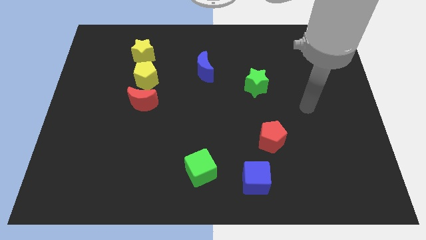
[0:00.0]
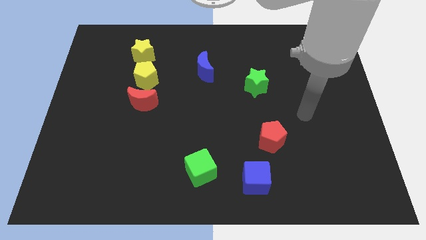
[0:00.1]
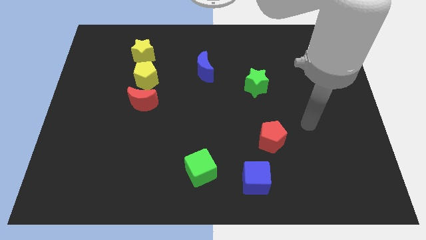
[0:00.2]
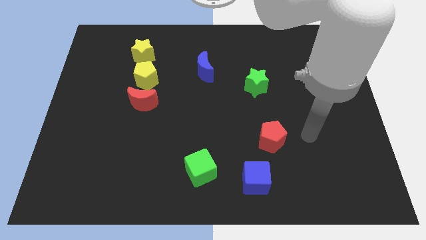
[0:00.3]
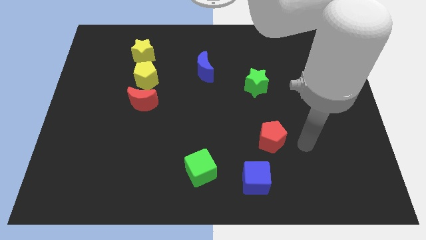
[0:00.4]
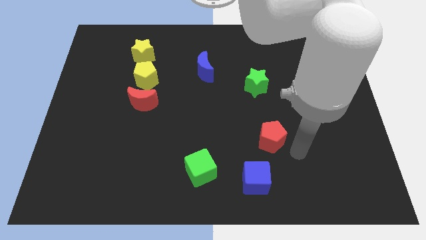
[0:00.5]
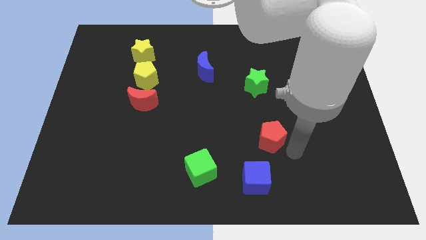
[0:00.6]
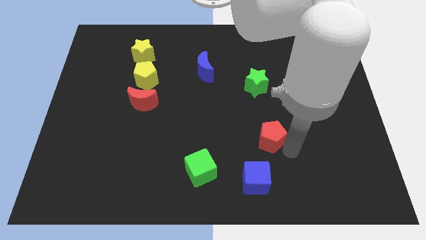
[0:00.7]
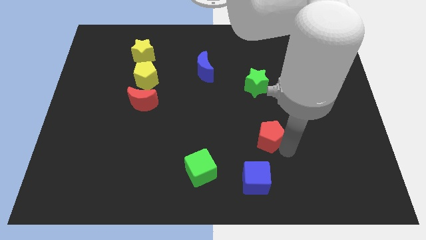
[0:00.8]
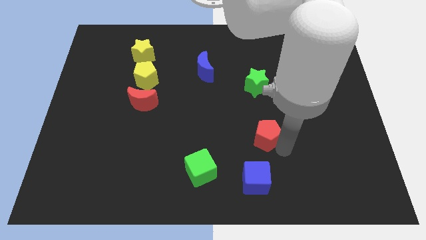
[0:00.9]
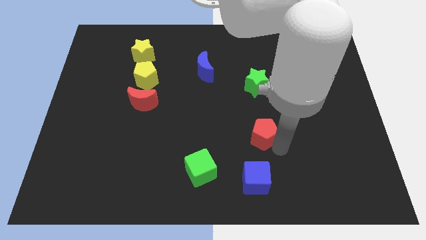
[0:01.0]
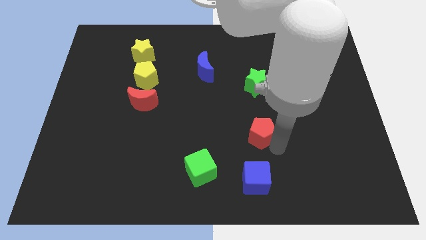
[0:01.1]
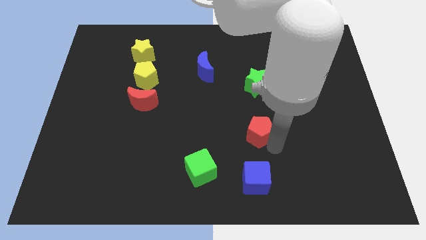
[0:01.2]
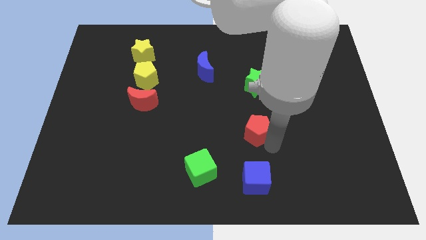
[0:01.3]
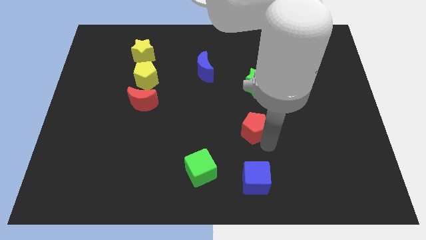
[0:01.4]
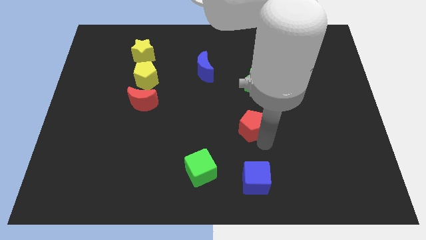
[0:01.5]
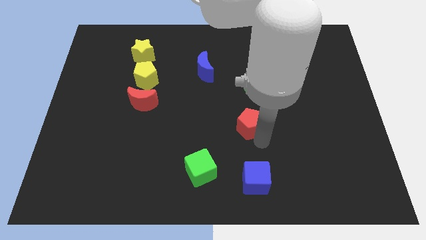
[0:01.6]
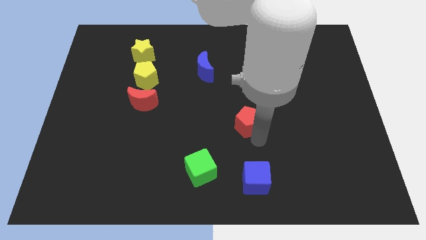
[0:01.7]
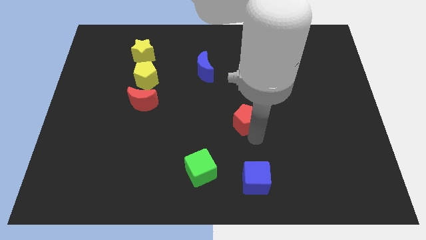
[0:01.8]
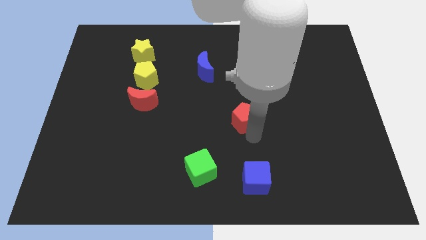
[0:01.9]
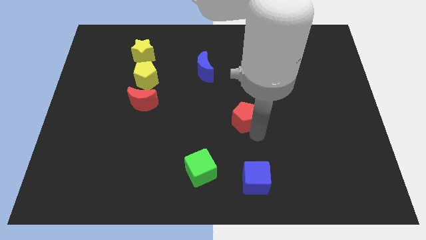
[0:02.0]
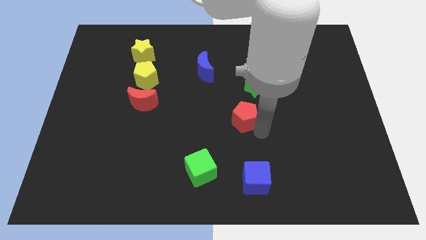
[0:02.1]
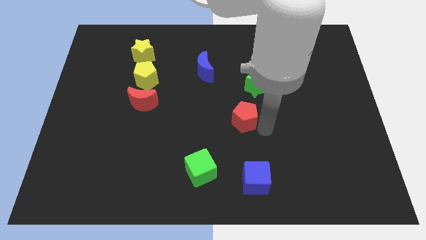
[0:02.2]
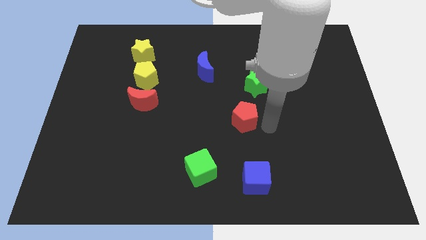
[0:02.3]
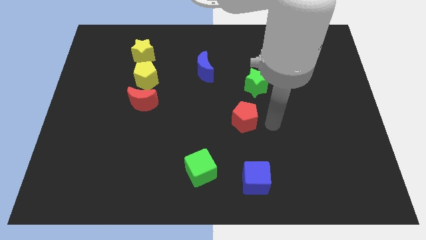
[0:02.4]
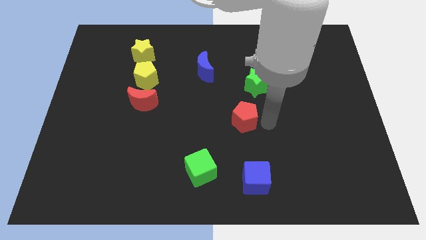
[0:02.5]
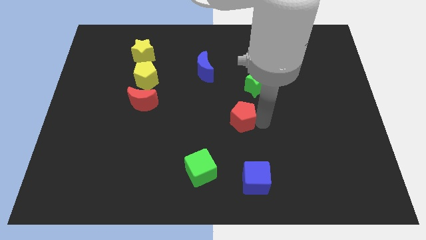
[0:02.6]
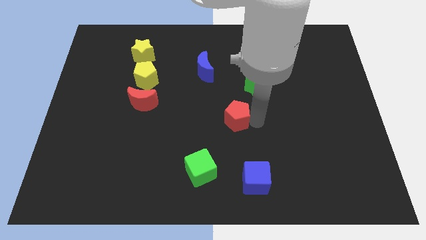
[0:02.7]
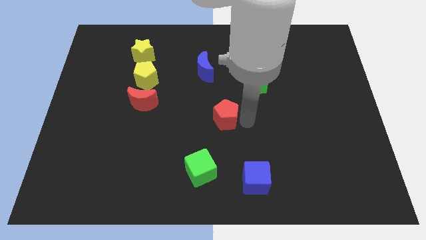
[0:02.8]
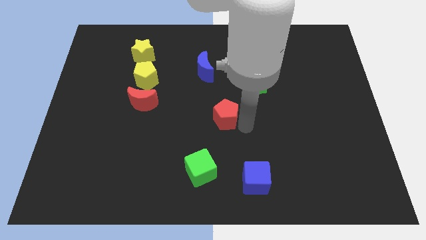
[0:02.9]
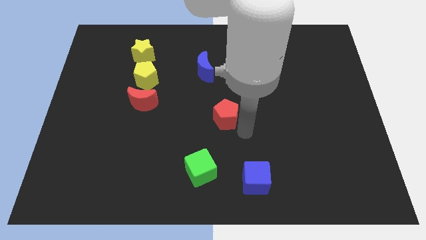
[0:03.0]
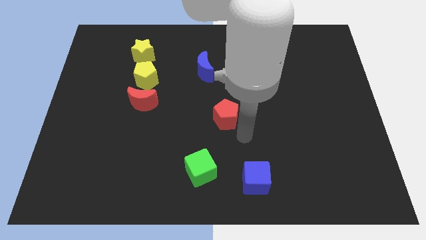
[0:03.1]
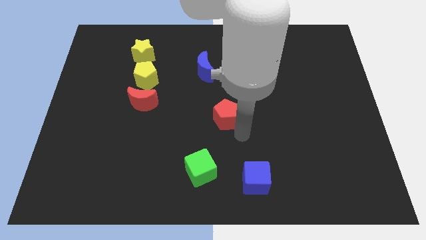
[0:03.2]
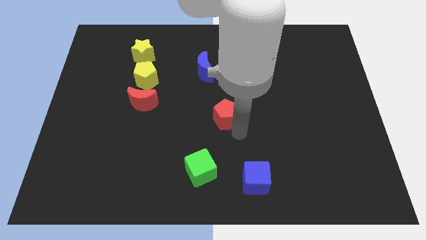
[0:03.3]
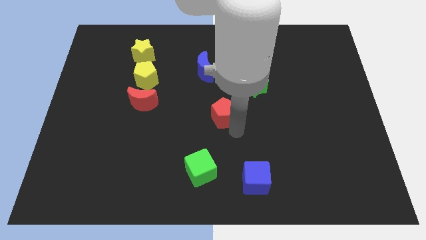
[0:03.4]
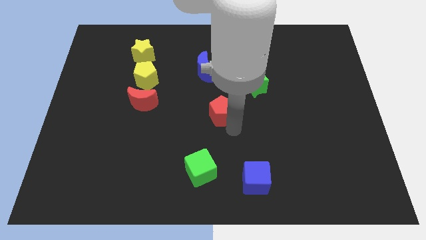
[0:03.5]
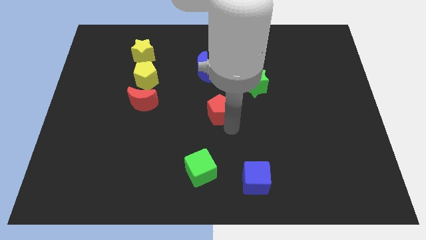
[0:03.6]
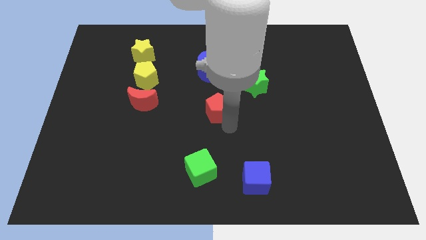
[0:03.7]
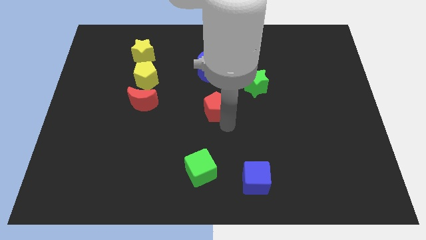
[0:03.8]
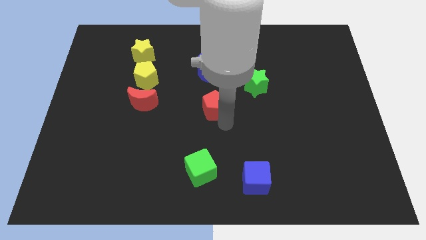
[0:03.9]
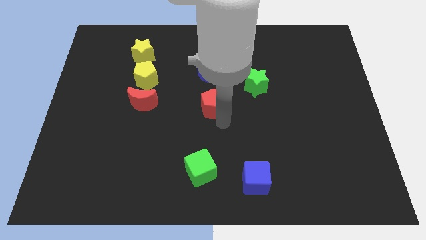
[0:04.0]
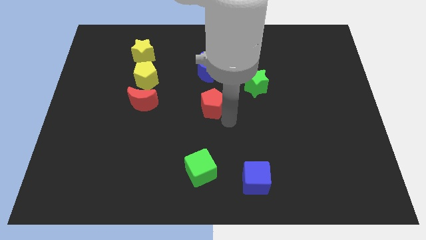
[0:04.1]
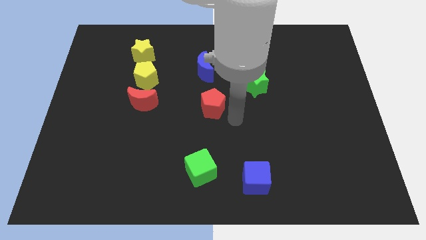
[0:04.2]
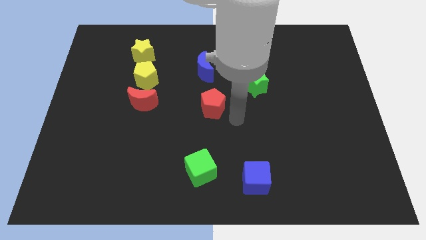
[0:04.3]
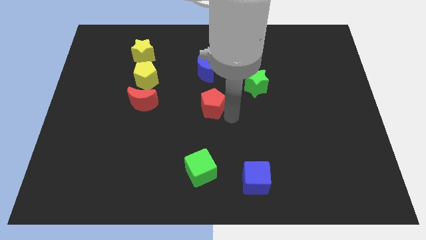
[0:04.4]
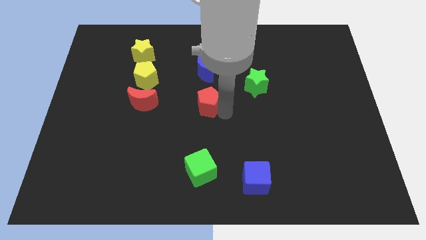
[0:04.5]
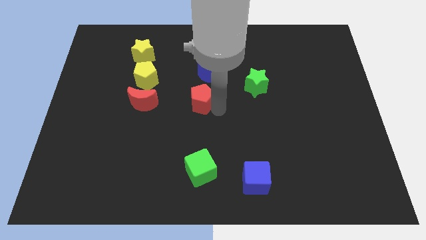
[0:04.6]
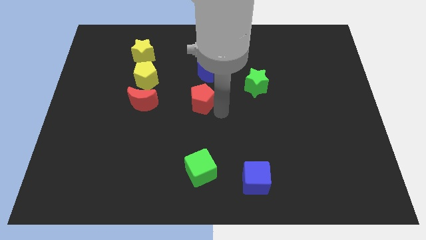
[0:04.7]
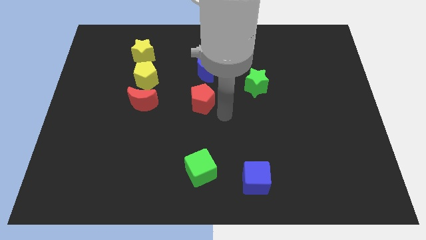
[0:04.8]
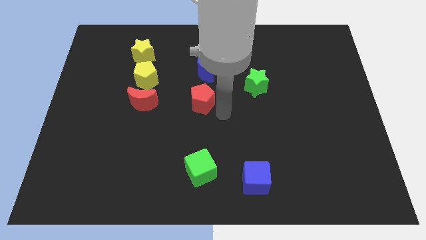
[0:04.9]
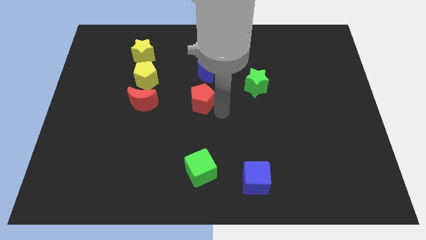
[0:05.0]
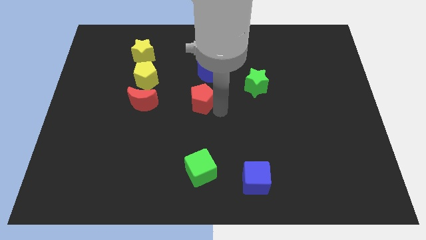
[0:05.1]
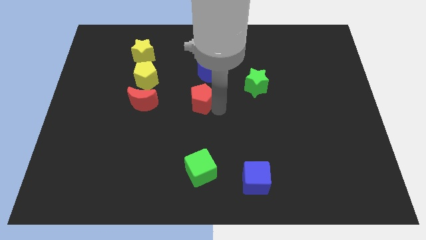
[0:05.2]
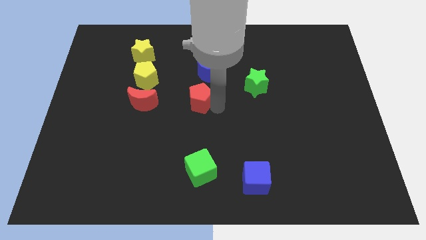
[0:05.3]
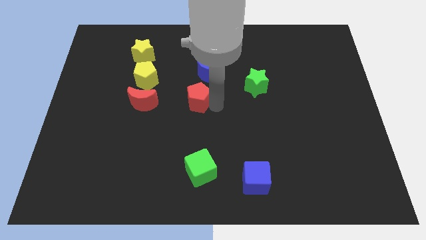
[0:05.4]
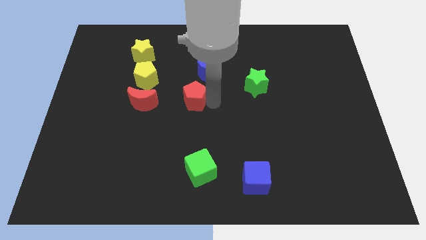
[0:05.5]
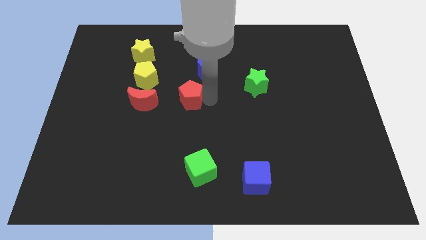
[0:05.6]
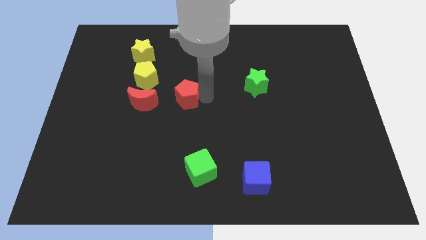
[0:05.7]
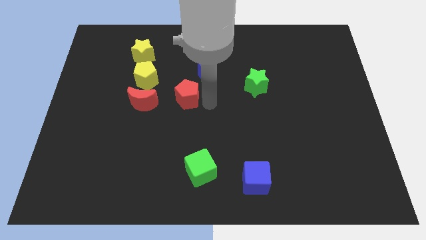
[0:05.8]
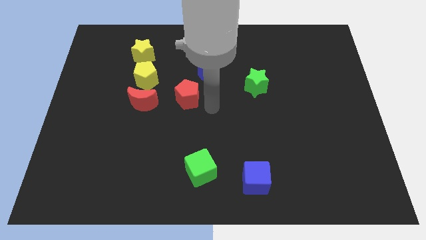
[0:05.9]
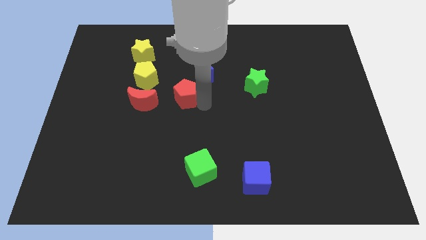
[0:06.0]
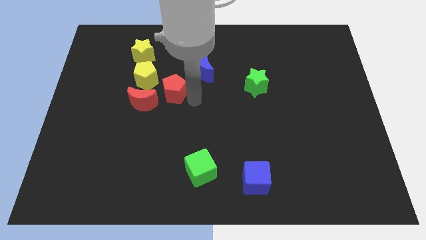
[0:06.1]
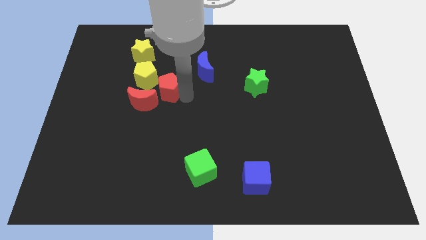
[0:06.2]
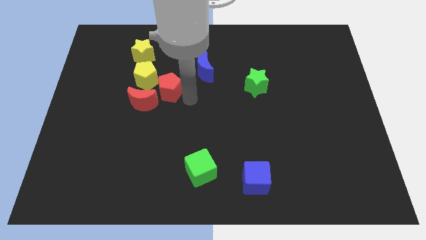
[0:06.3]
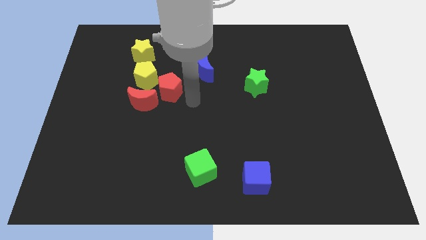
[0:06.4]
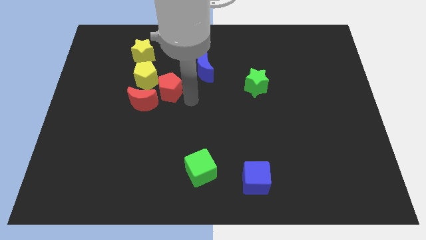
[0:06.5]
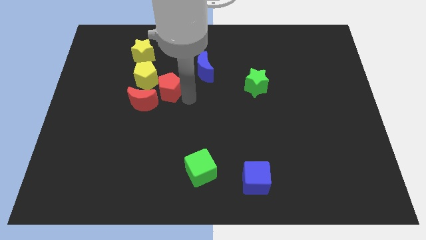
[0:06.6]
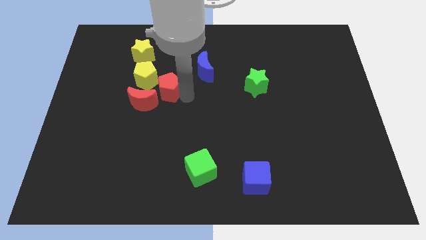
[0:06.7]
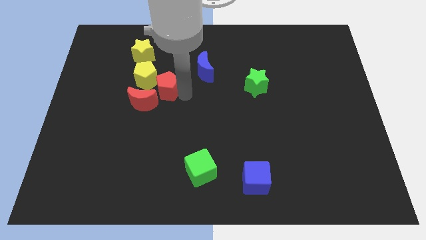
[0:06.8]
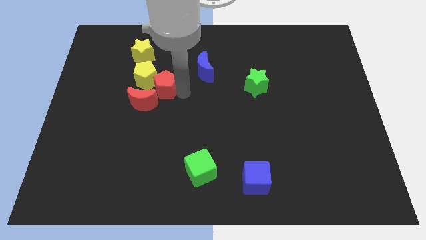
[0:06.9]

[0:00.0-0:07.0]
slide the red pentagon towards the yellow pentagon

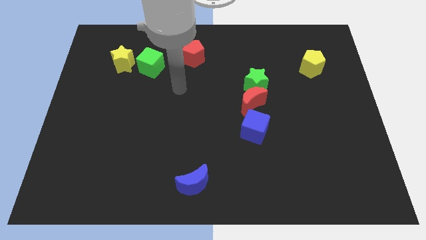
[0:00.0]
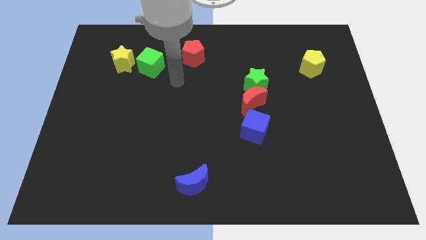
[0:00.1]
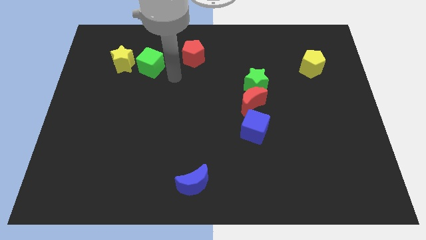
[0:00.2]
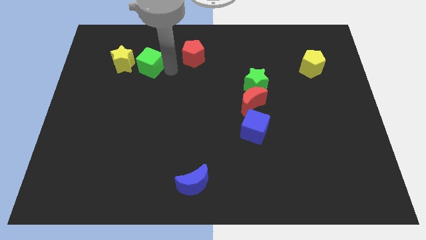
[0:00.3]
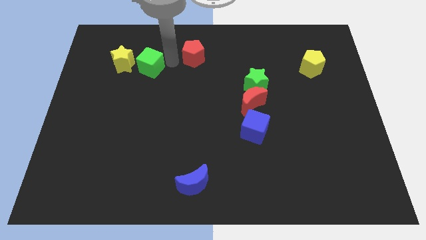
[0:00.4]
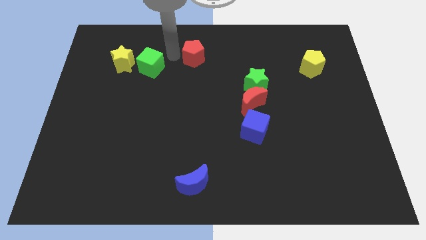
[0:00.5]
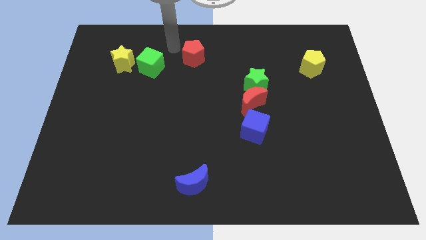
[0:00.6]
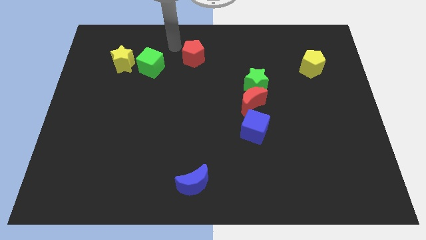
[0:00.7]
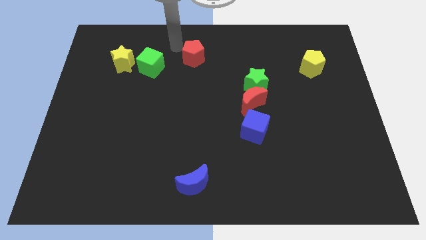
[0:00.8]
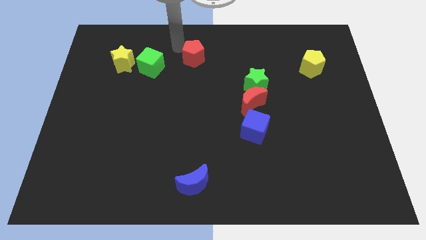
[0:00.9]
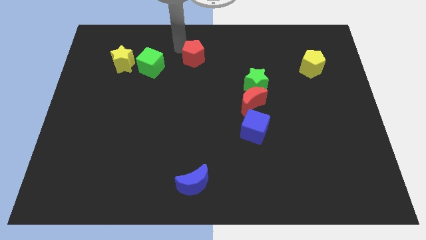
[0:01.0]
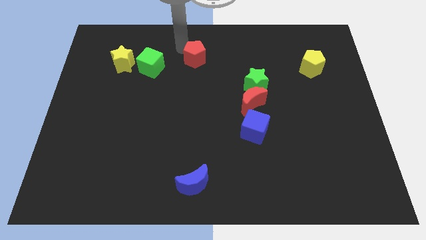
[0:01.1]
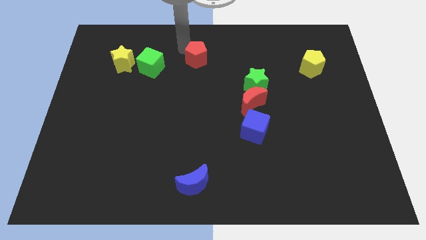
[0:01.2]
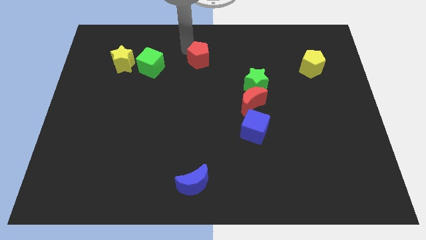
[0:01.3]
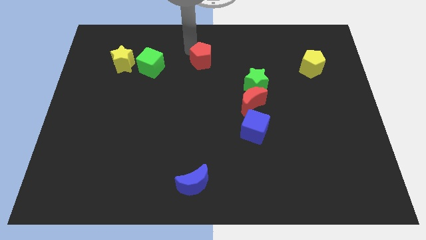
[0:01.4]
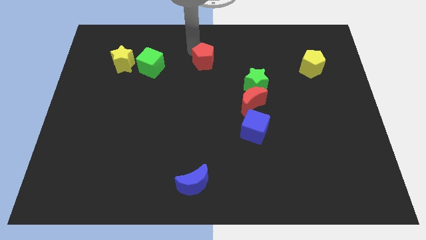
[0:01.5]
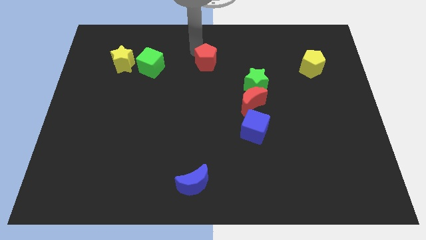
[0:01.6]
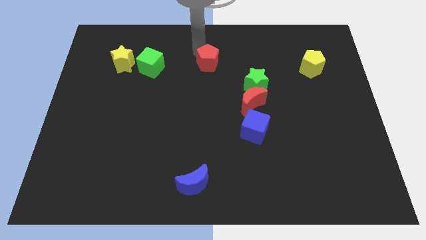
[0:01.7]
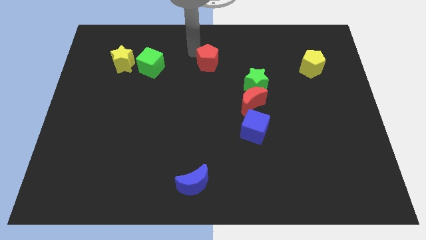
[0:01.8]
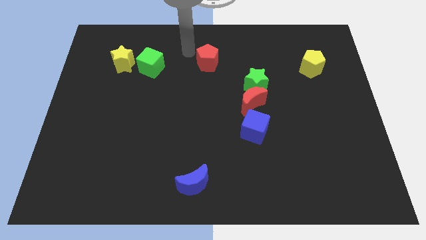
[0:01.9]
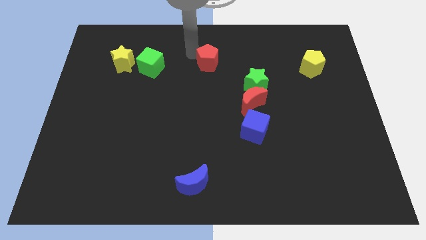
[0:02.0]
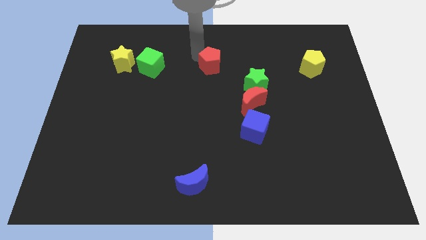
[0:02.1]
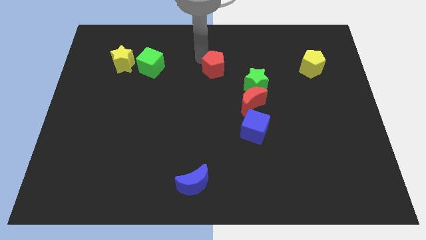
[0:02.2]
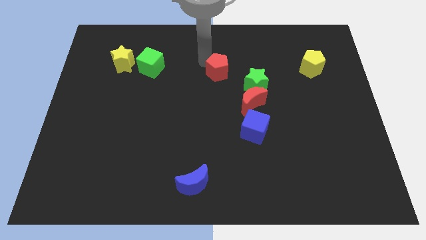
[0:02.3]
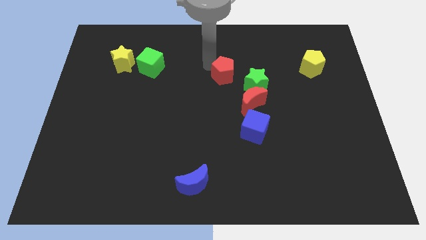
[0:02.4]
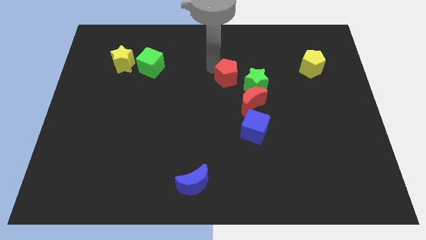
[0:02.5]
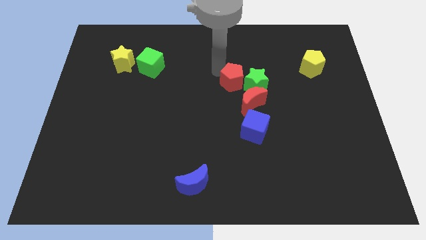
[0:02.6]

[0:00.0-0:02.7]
push the red pentagon next to the green star
